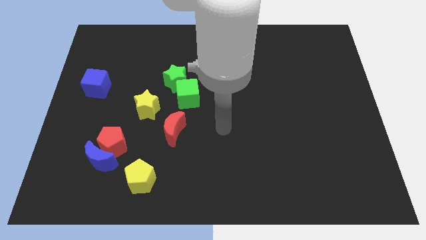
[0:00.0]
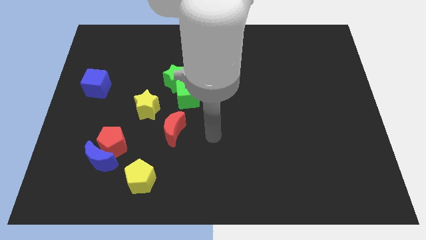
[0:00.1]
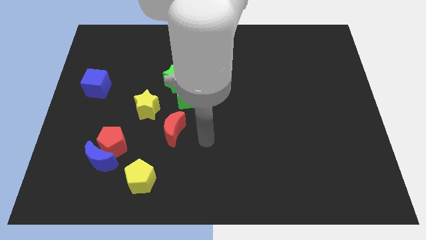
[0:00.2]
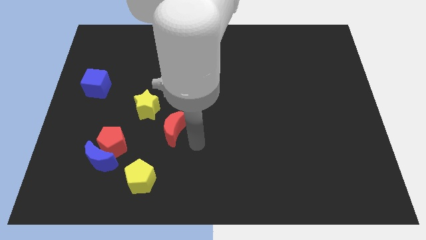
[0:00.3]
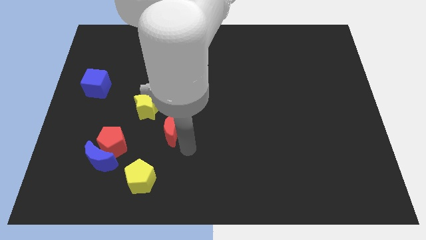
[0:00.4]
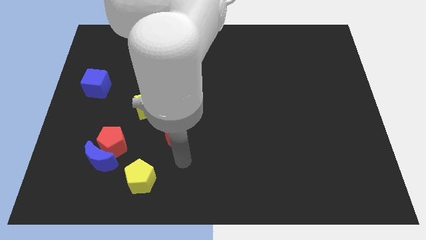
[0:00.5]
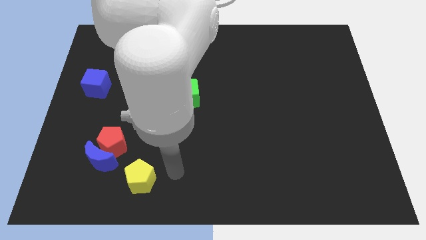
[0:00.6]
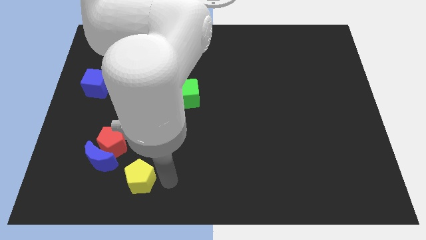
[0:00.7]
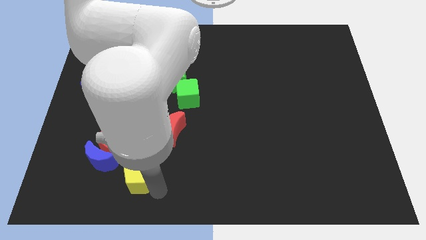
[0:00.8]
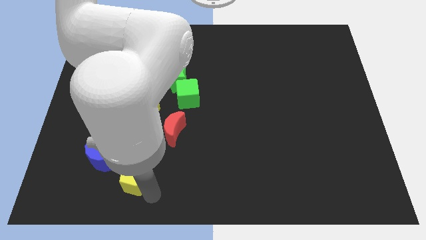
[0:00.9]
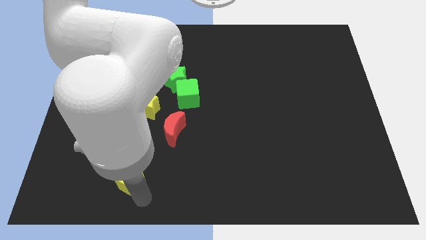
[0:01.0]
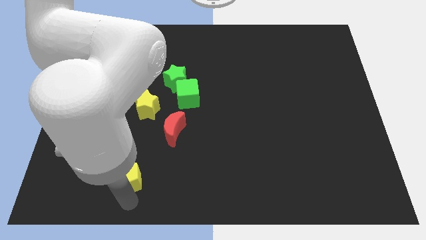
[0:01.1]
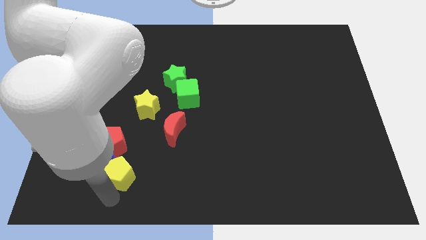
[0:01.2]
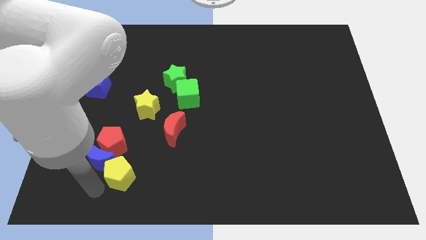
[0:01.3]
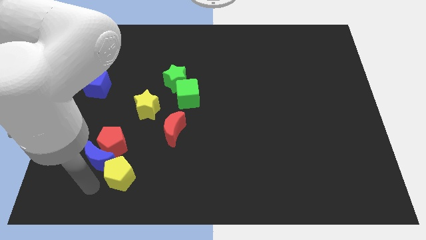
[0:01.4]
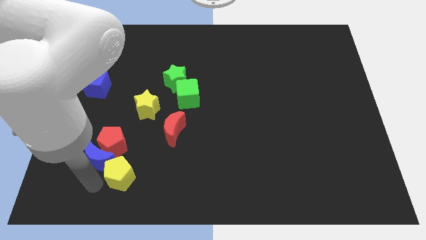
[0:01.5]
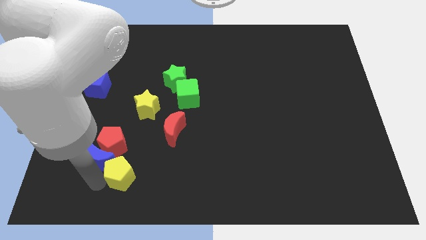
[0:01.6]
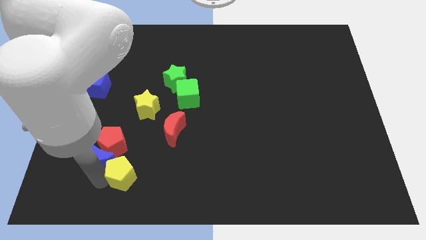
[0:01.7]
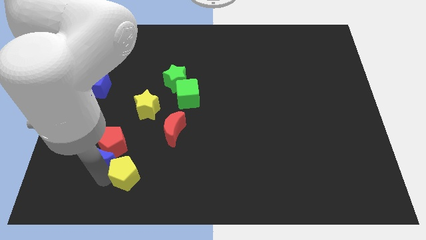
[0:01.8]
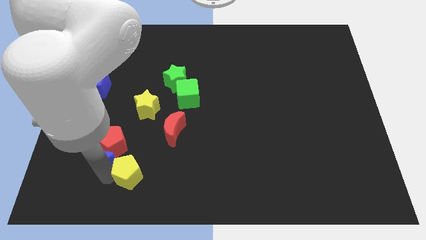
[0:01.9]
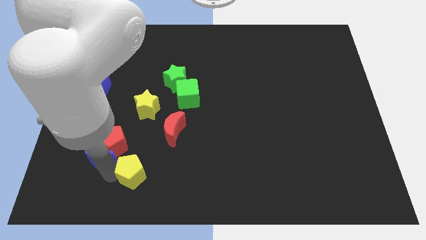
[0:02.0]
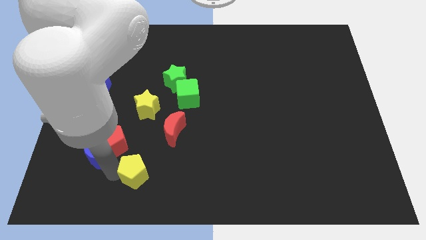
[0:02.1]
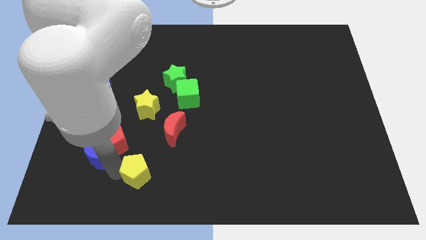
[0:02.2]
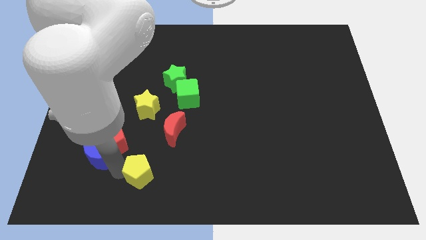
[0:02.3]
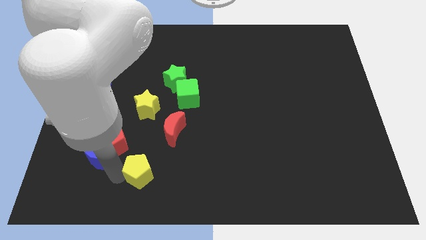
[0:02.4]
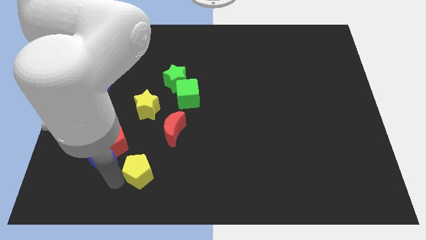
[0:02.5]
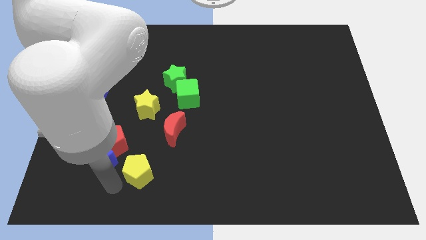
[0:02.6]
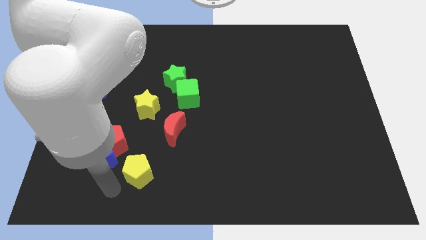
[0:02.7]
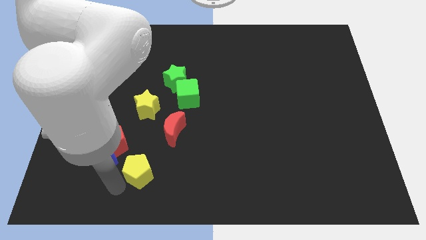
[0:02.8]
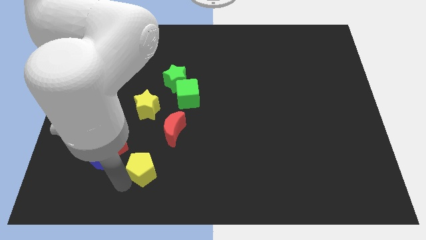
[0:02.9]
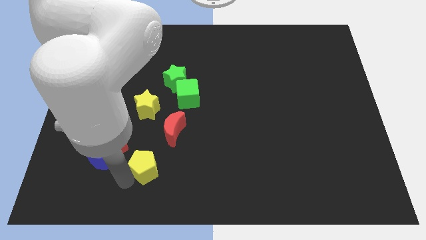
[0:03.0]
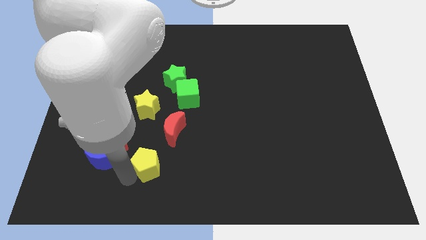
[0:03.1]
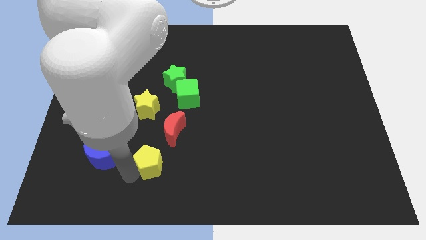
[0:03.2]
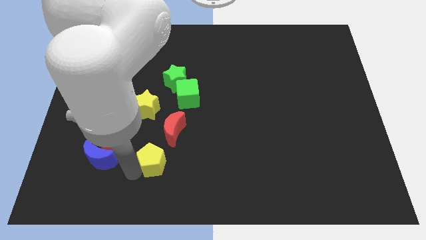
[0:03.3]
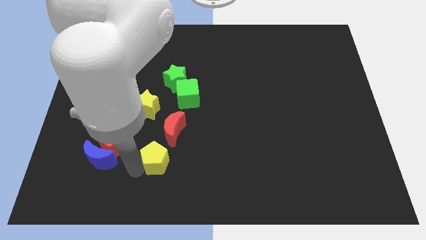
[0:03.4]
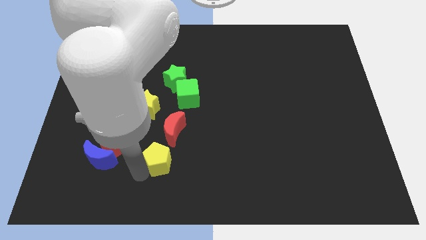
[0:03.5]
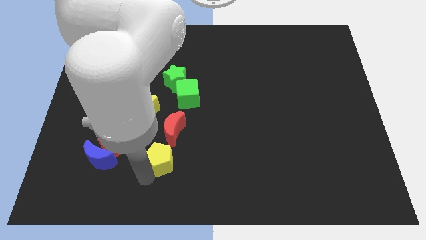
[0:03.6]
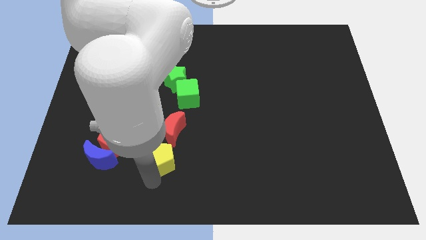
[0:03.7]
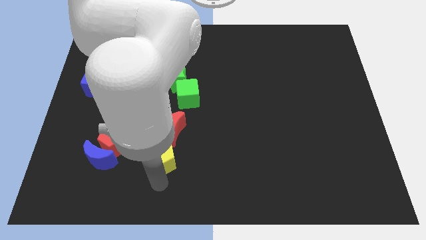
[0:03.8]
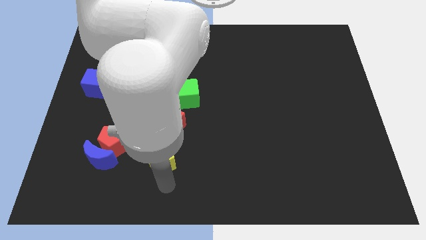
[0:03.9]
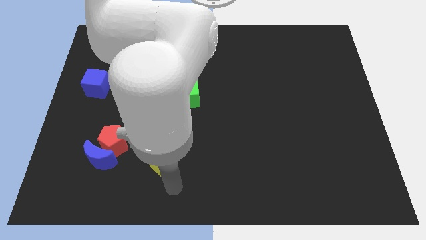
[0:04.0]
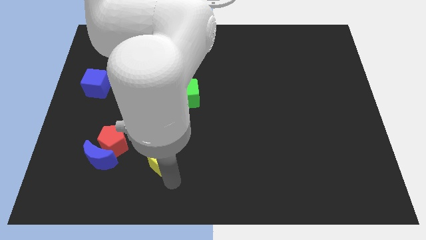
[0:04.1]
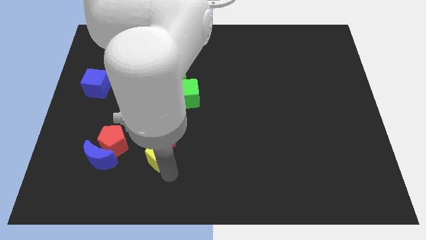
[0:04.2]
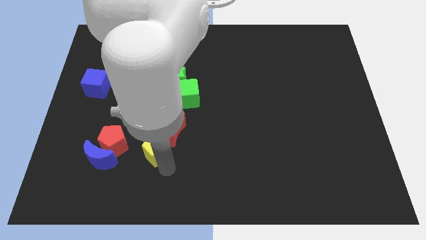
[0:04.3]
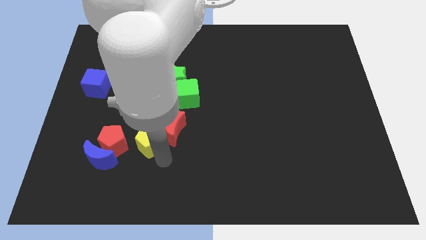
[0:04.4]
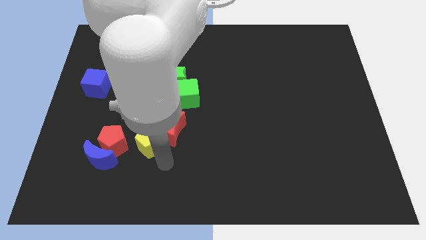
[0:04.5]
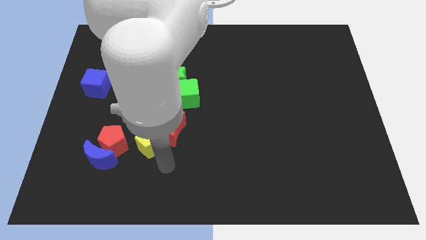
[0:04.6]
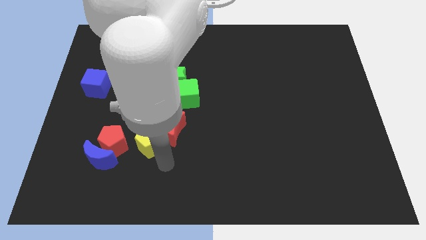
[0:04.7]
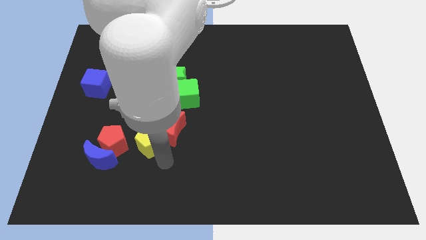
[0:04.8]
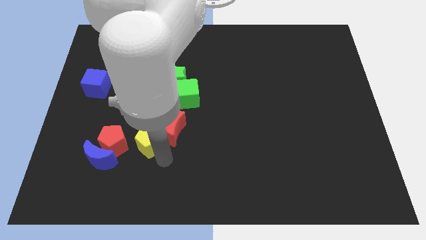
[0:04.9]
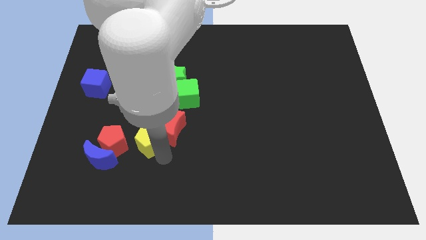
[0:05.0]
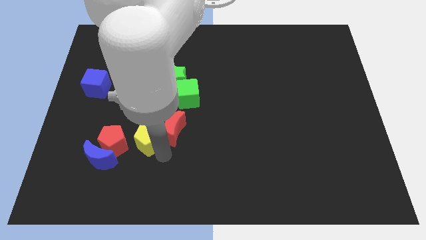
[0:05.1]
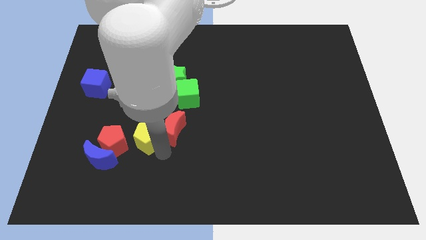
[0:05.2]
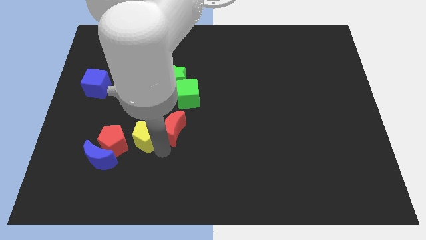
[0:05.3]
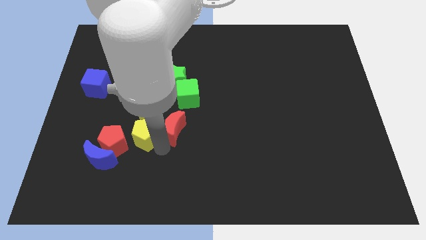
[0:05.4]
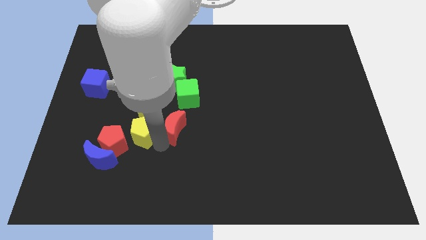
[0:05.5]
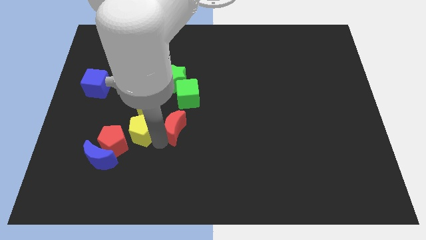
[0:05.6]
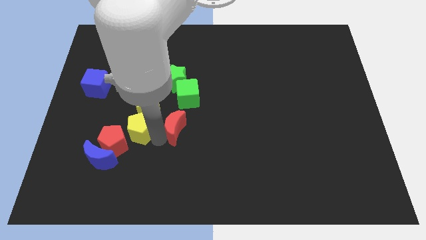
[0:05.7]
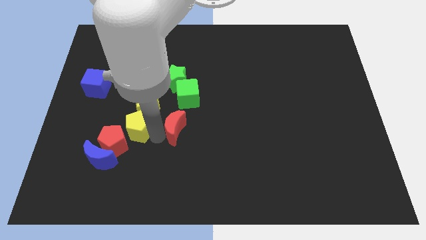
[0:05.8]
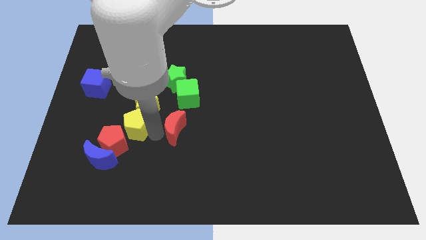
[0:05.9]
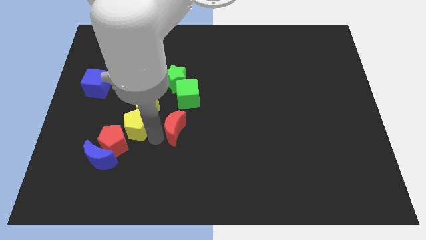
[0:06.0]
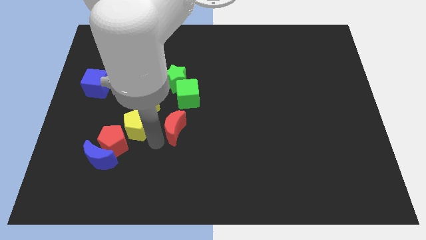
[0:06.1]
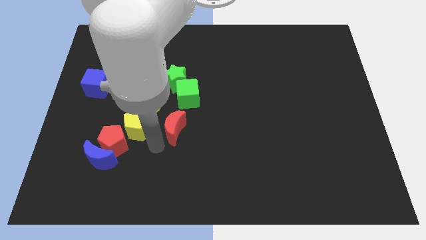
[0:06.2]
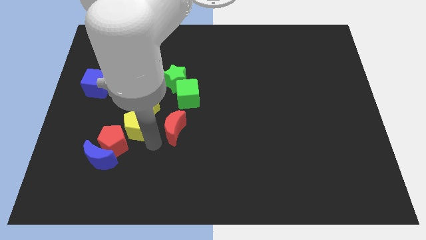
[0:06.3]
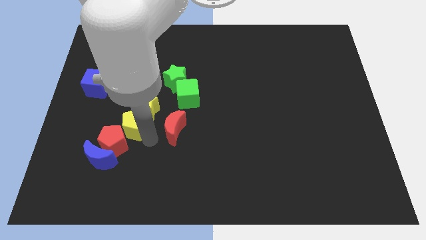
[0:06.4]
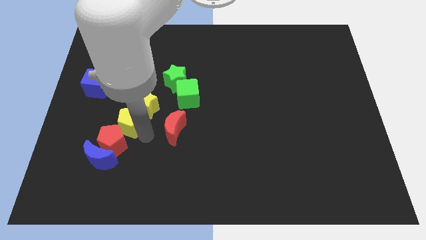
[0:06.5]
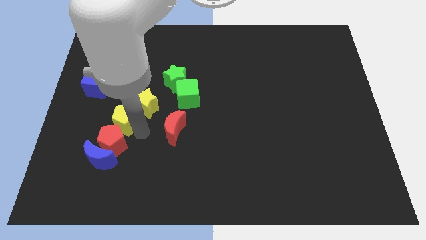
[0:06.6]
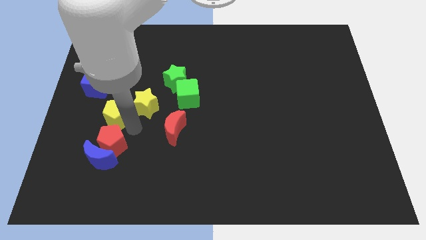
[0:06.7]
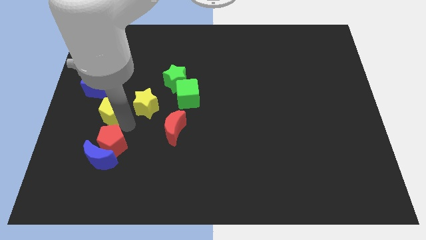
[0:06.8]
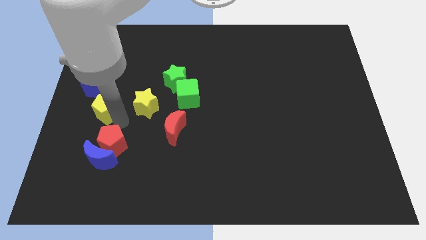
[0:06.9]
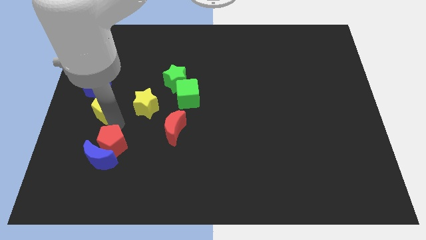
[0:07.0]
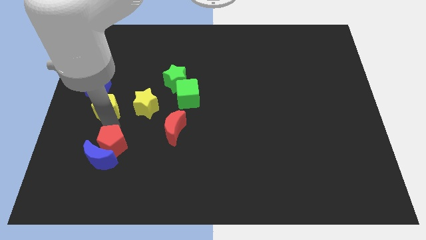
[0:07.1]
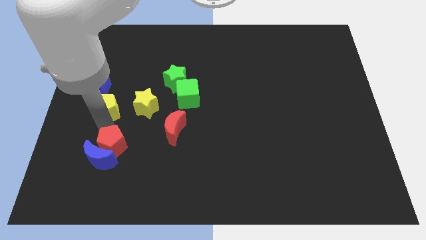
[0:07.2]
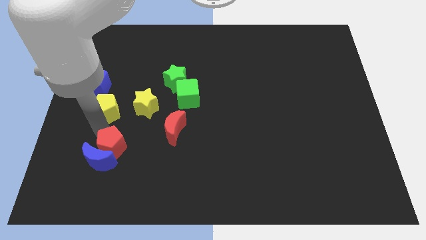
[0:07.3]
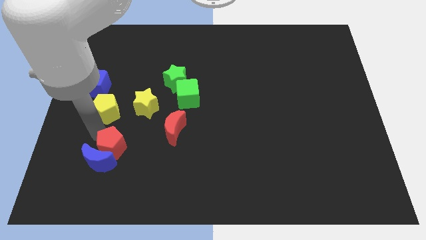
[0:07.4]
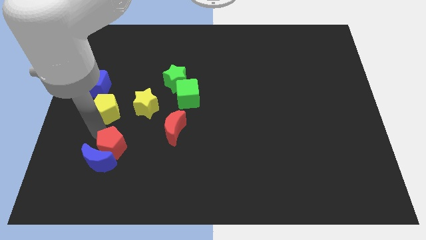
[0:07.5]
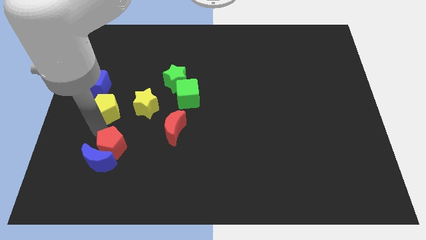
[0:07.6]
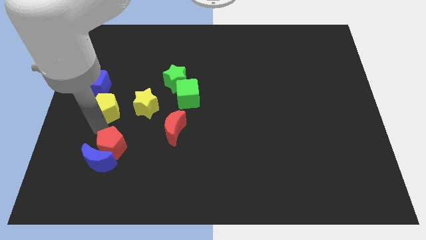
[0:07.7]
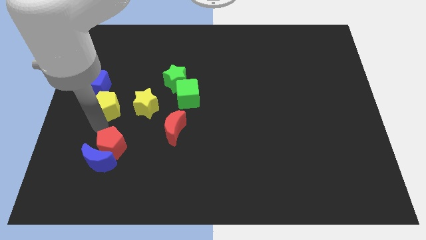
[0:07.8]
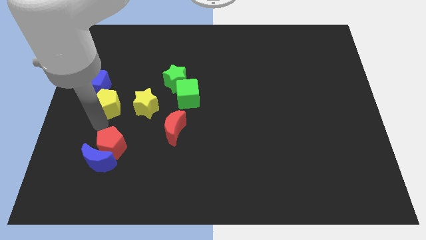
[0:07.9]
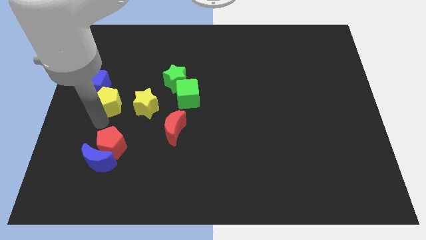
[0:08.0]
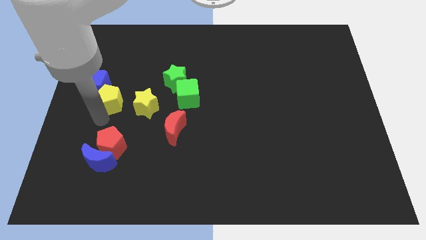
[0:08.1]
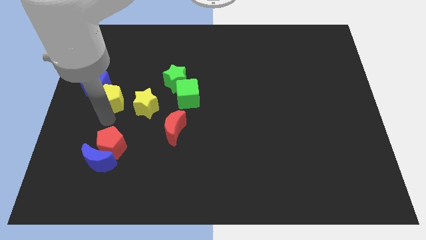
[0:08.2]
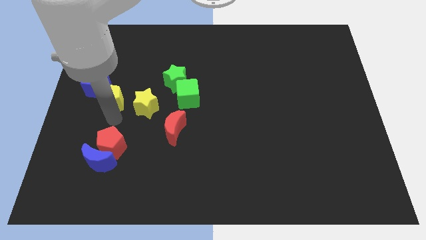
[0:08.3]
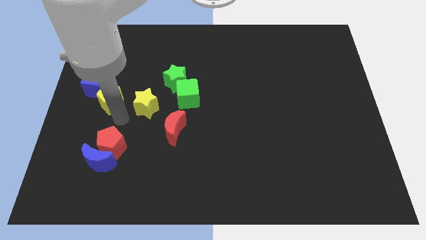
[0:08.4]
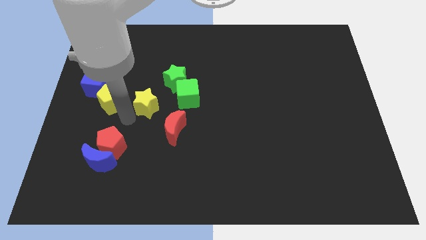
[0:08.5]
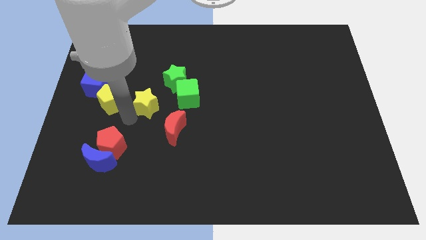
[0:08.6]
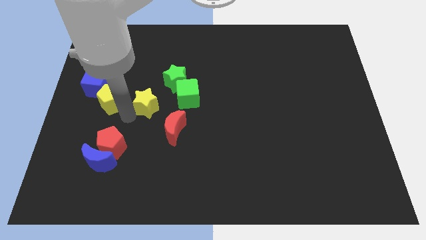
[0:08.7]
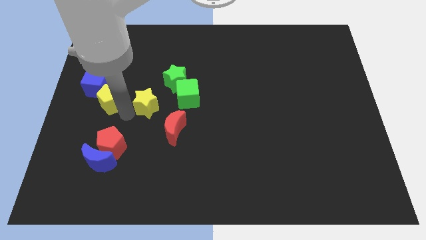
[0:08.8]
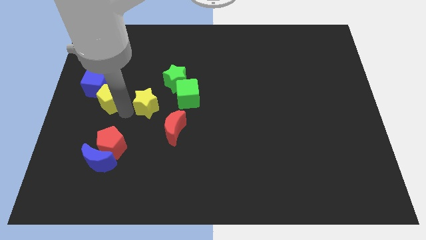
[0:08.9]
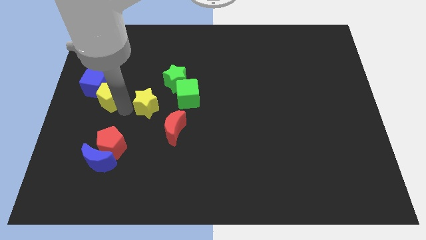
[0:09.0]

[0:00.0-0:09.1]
slide the yellow pentagon close to the blue cube
